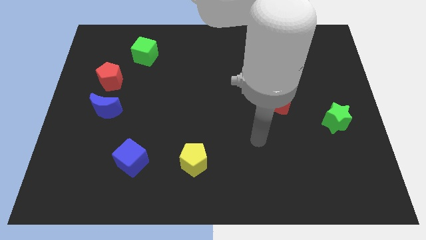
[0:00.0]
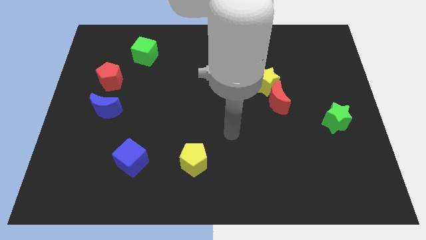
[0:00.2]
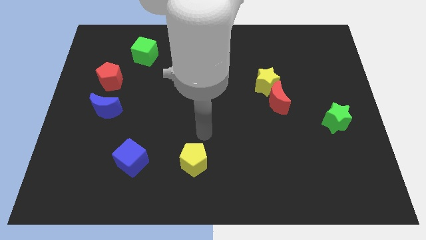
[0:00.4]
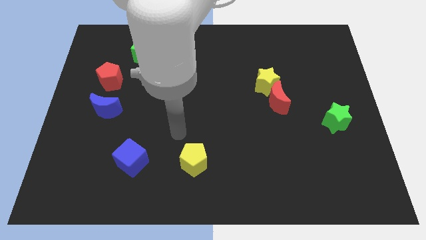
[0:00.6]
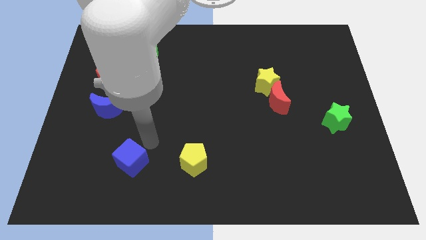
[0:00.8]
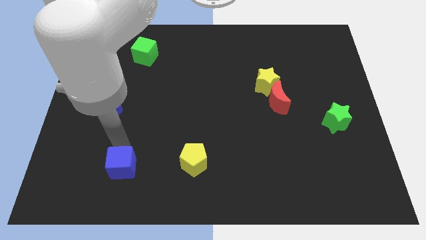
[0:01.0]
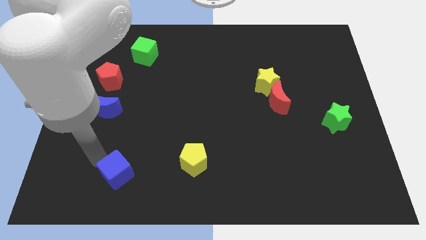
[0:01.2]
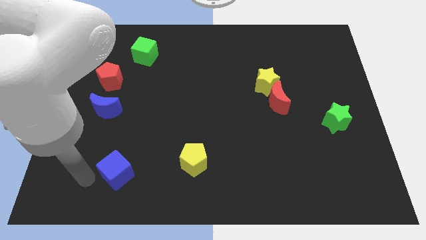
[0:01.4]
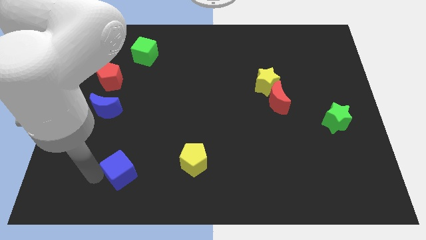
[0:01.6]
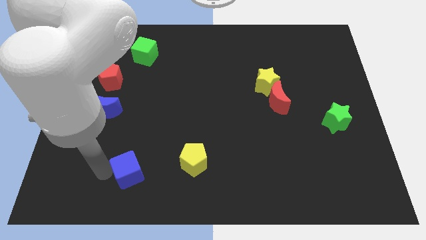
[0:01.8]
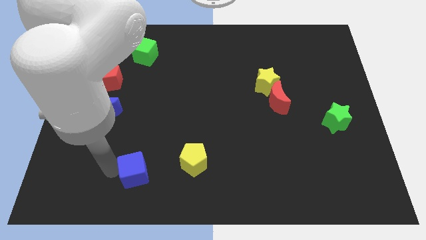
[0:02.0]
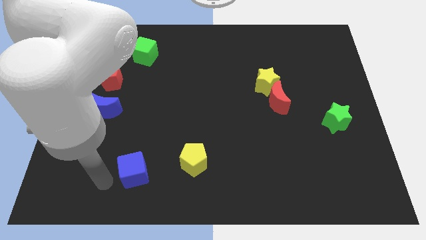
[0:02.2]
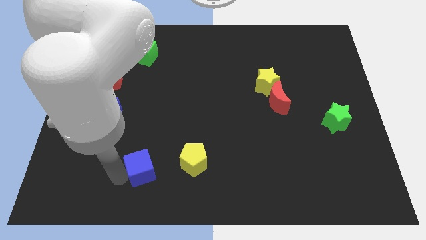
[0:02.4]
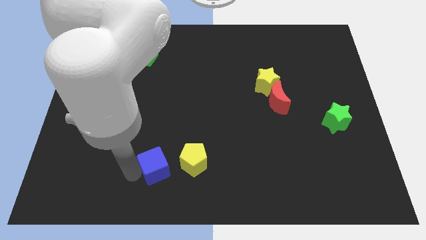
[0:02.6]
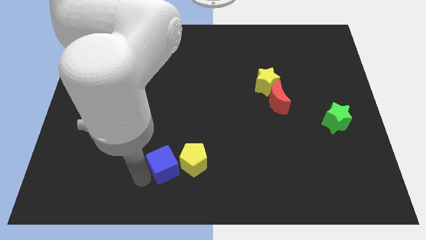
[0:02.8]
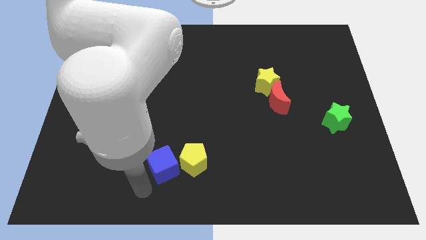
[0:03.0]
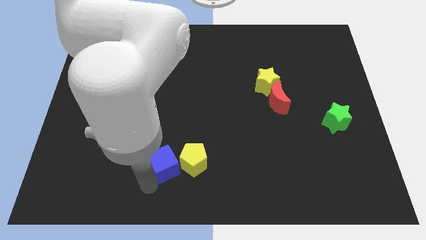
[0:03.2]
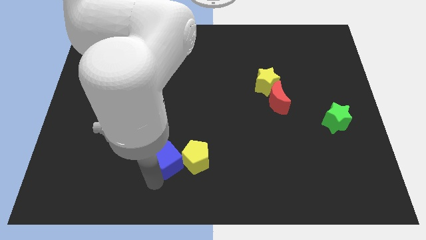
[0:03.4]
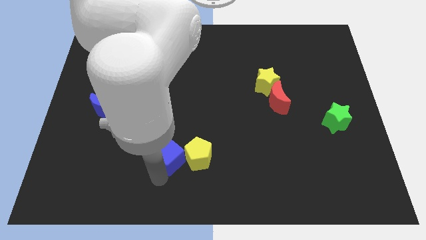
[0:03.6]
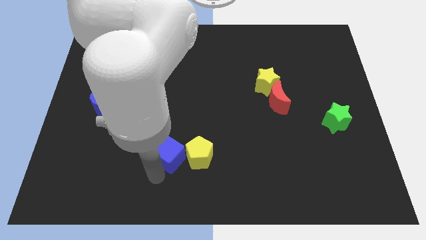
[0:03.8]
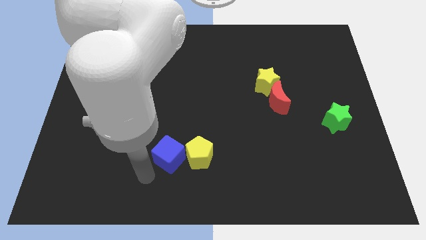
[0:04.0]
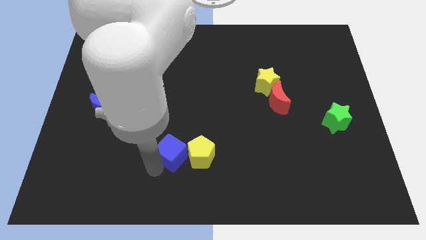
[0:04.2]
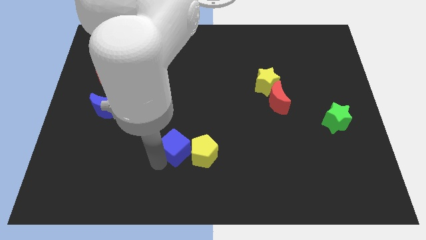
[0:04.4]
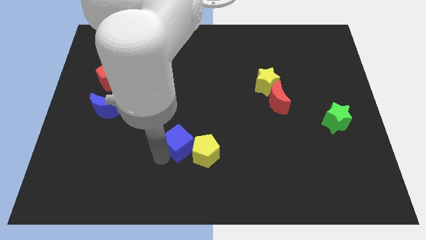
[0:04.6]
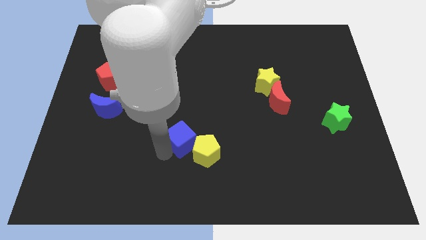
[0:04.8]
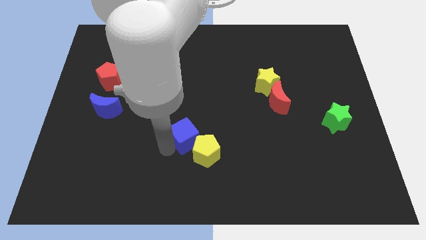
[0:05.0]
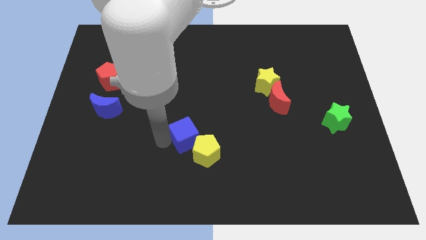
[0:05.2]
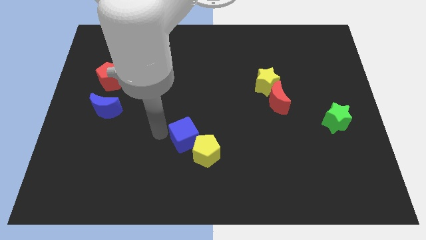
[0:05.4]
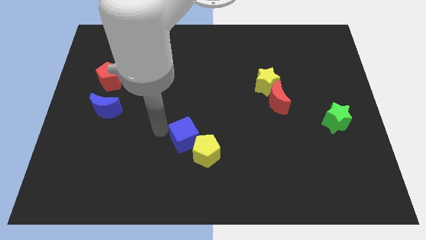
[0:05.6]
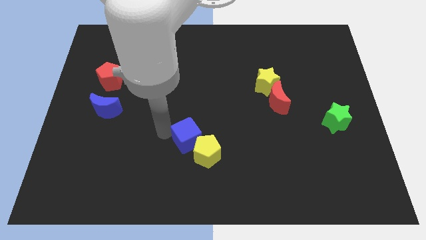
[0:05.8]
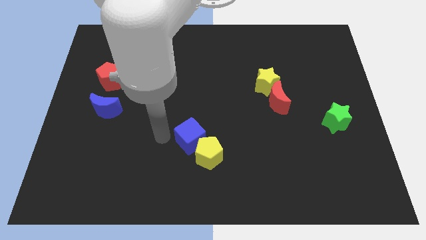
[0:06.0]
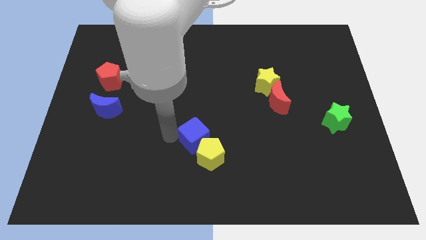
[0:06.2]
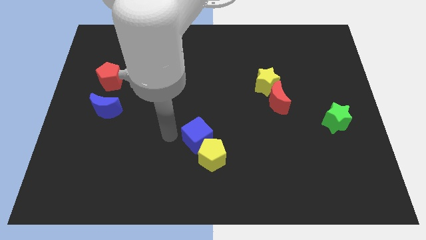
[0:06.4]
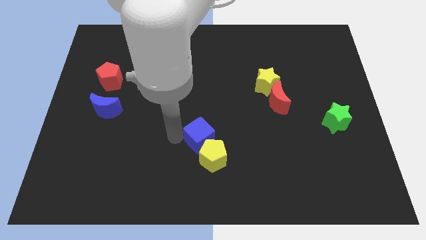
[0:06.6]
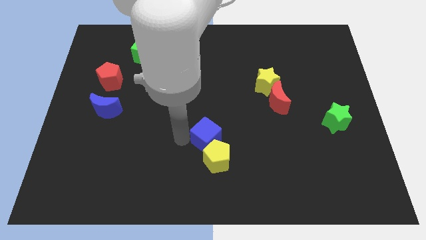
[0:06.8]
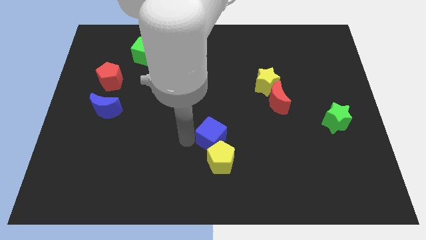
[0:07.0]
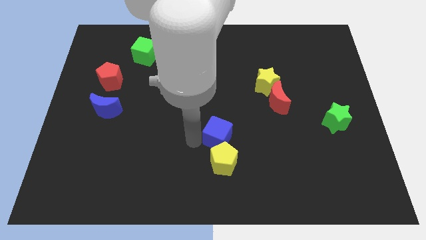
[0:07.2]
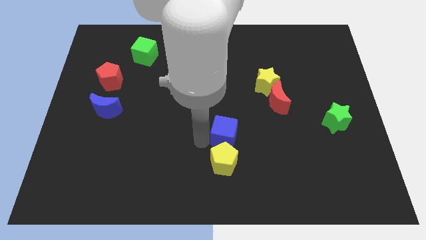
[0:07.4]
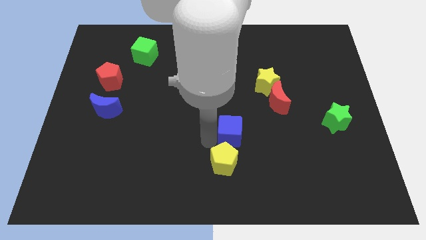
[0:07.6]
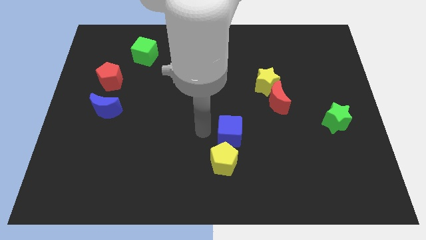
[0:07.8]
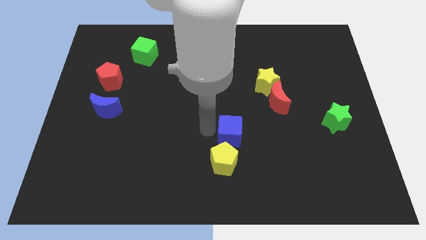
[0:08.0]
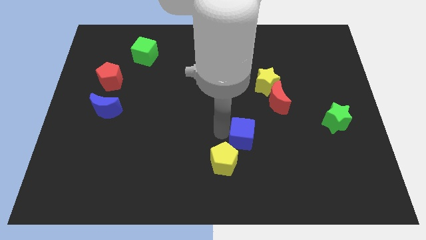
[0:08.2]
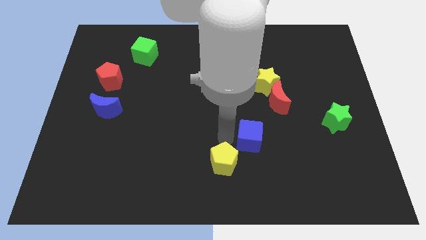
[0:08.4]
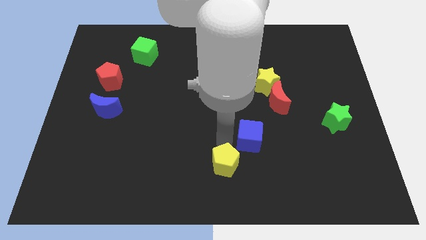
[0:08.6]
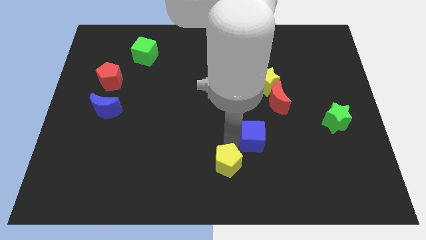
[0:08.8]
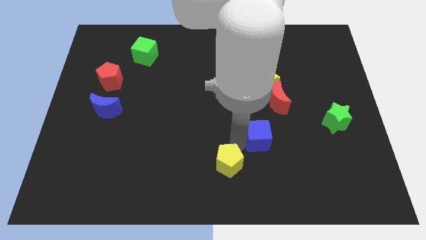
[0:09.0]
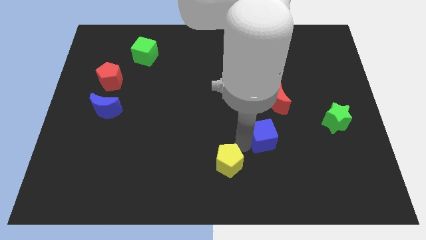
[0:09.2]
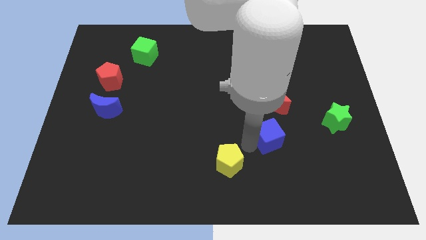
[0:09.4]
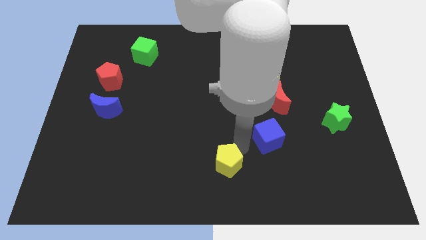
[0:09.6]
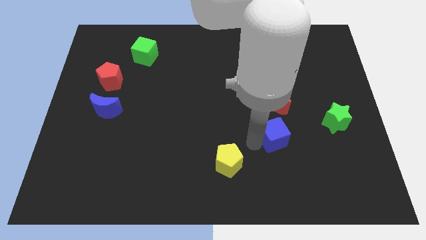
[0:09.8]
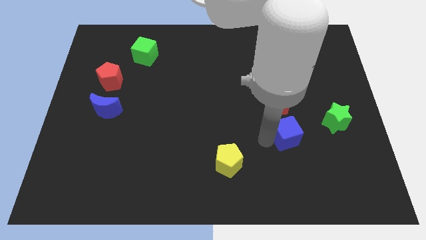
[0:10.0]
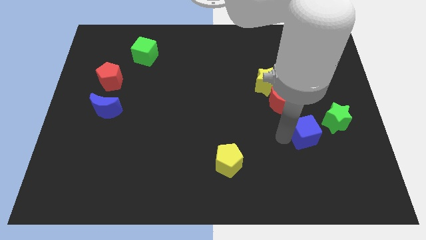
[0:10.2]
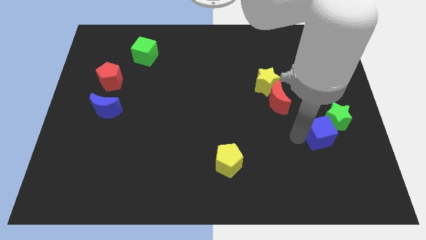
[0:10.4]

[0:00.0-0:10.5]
push the blue cube towards the green star
